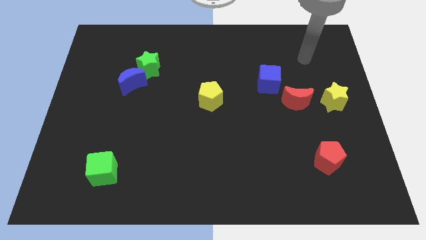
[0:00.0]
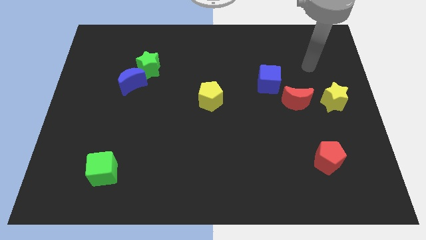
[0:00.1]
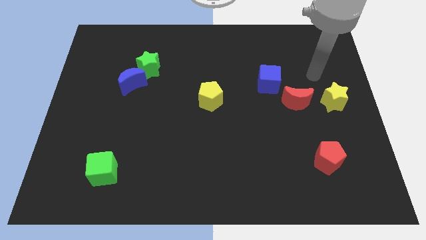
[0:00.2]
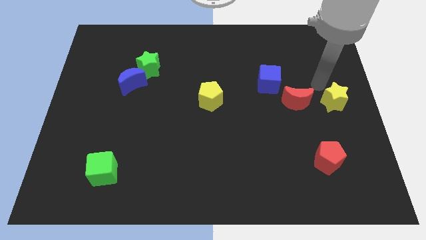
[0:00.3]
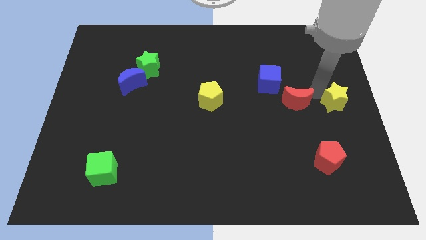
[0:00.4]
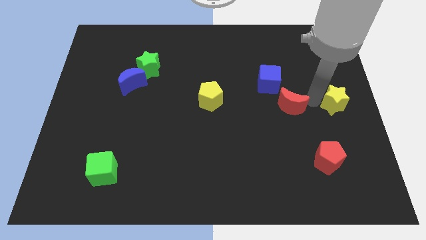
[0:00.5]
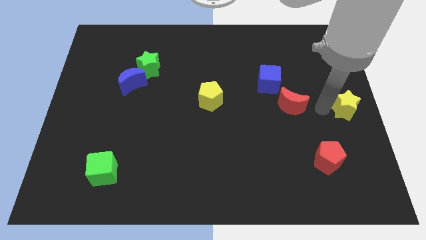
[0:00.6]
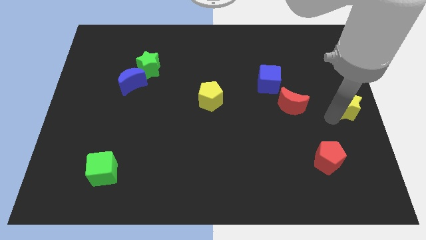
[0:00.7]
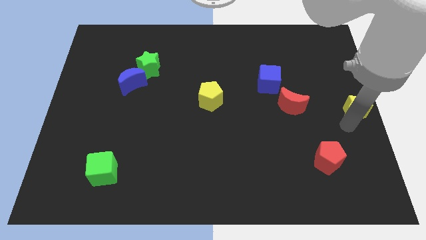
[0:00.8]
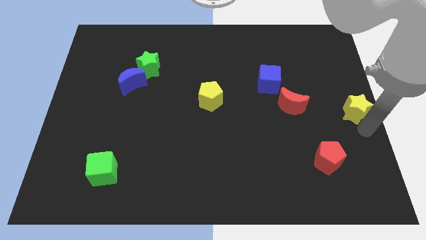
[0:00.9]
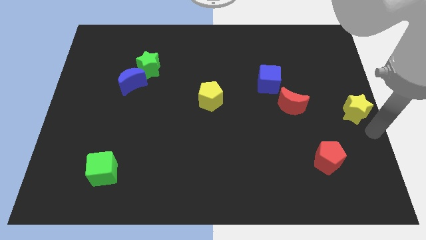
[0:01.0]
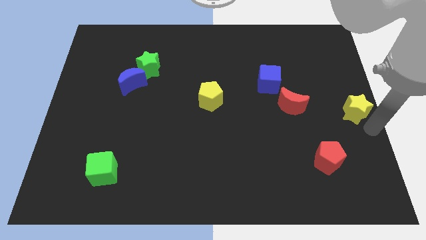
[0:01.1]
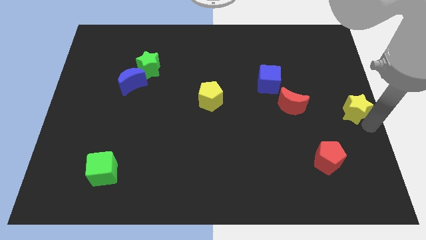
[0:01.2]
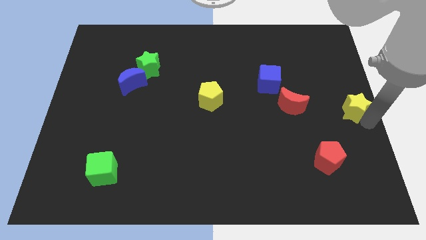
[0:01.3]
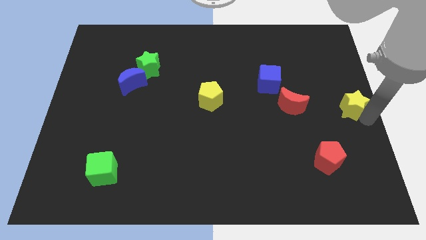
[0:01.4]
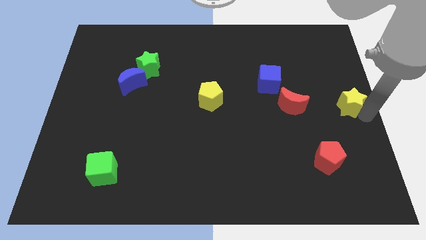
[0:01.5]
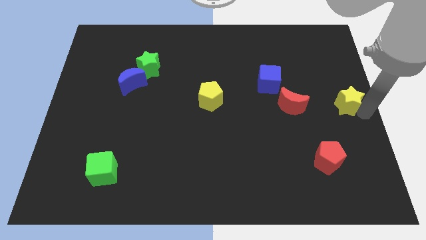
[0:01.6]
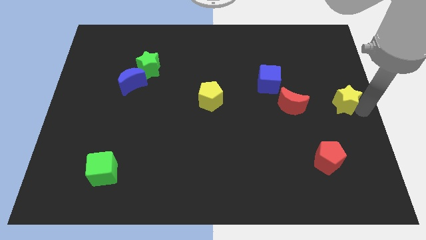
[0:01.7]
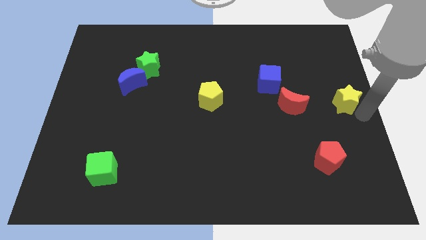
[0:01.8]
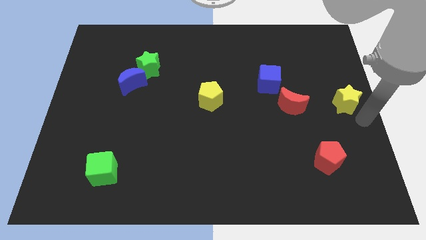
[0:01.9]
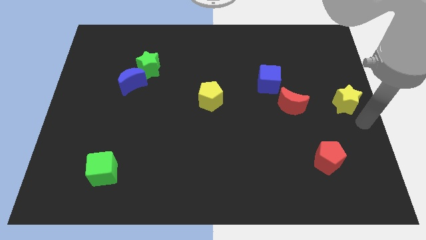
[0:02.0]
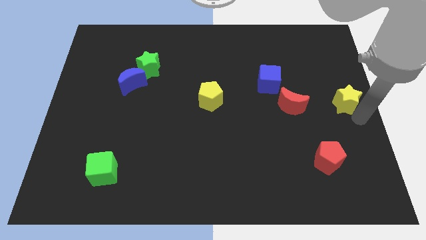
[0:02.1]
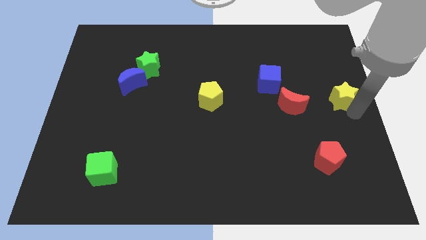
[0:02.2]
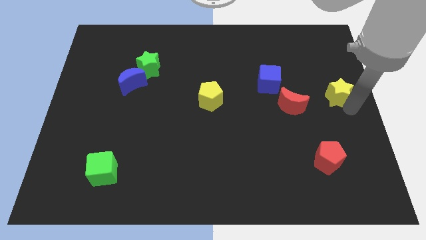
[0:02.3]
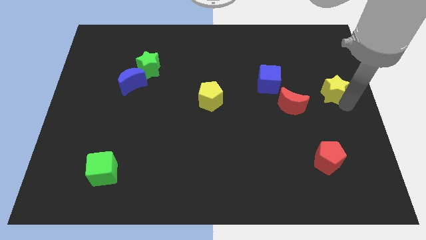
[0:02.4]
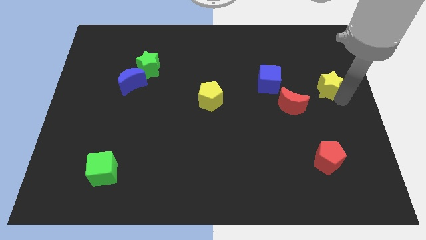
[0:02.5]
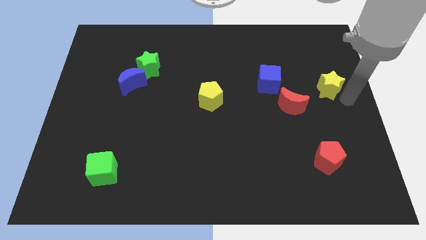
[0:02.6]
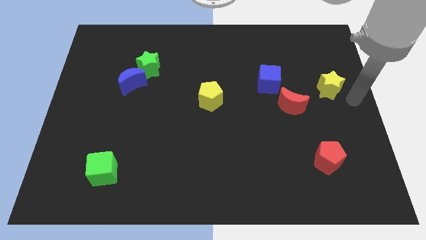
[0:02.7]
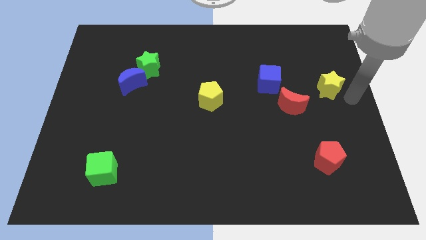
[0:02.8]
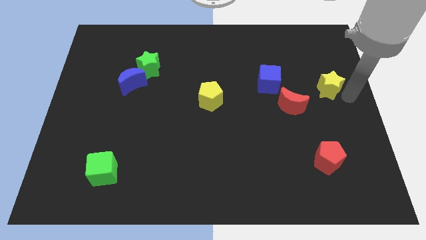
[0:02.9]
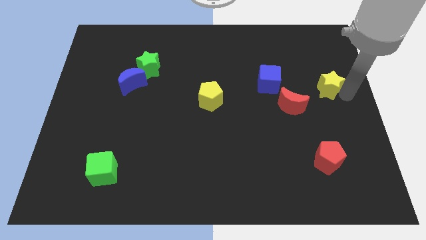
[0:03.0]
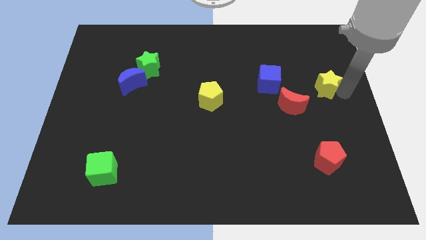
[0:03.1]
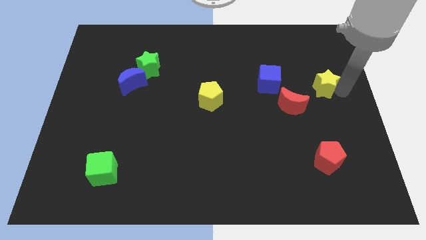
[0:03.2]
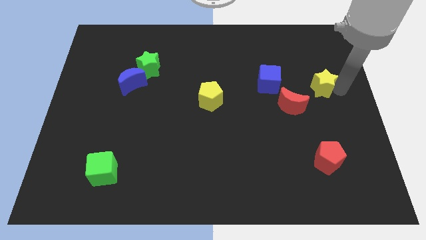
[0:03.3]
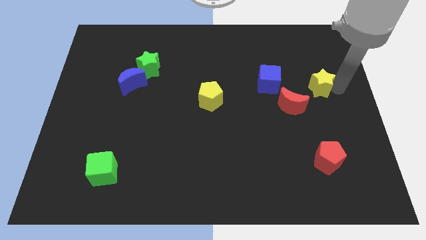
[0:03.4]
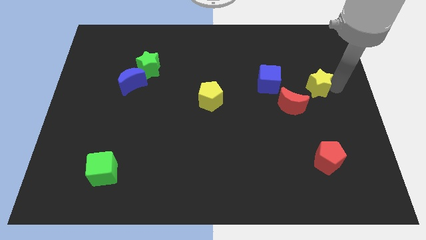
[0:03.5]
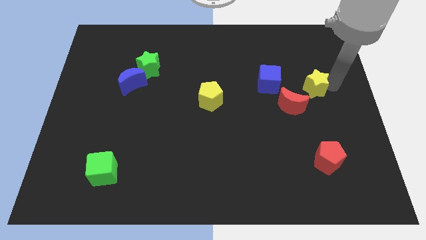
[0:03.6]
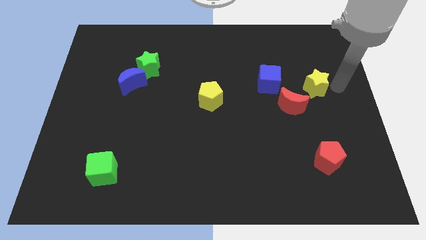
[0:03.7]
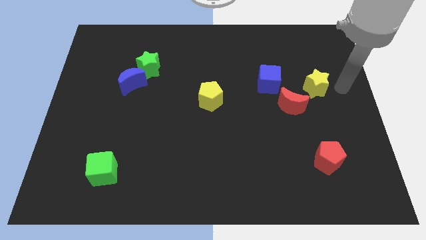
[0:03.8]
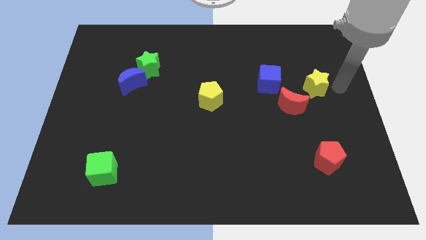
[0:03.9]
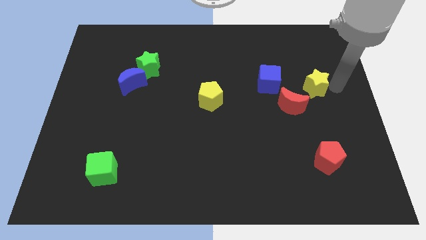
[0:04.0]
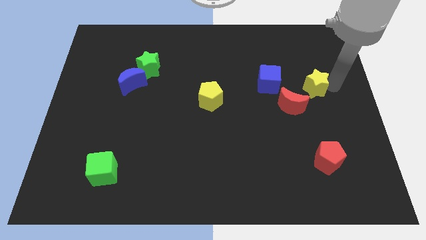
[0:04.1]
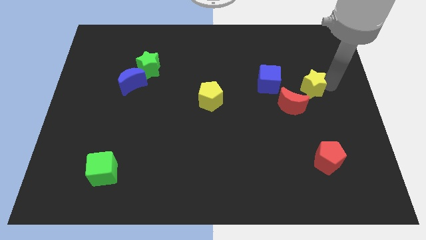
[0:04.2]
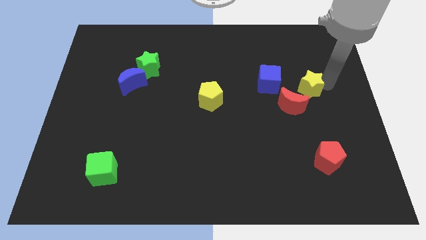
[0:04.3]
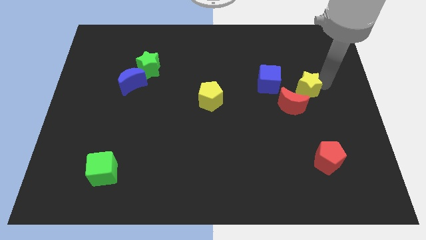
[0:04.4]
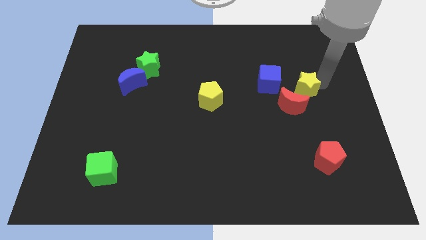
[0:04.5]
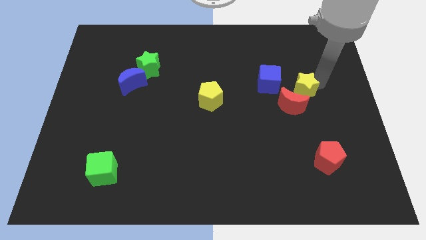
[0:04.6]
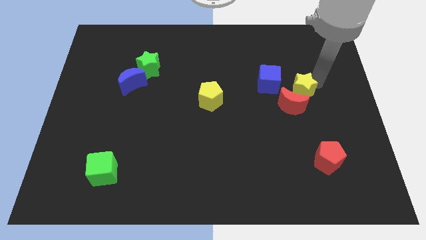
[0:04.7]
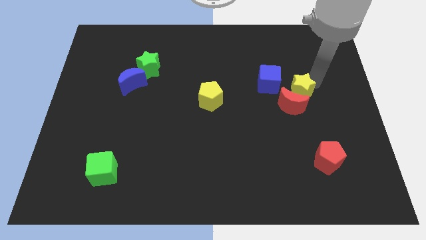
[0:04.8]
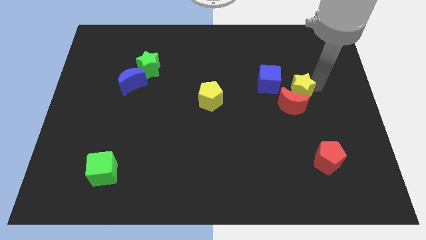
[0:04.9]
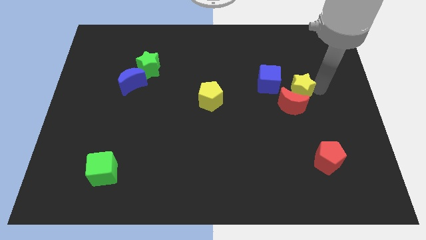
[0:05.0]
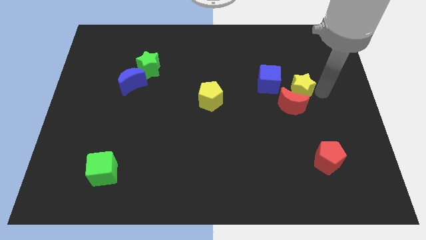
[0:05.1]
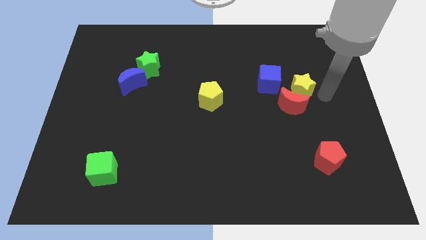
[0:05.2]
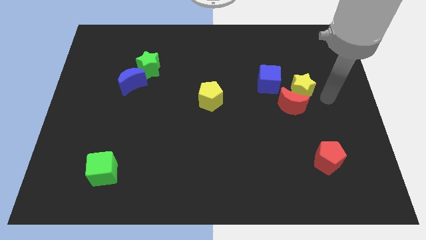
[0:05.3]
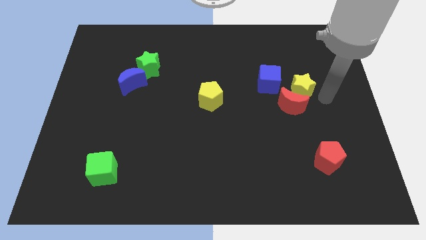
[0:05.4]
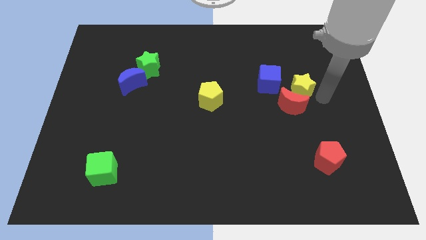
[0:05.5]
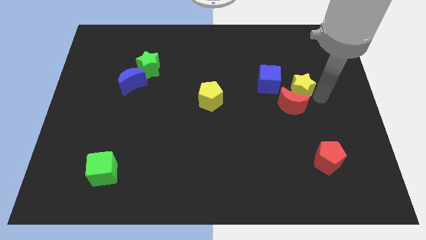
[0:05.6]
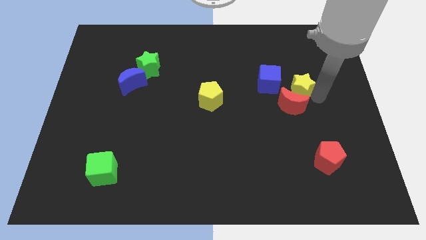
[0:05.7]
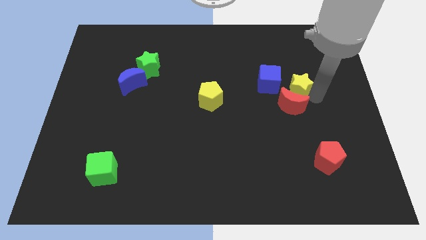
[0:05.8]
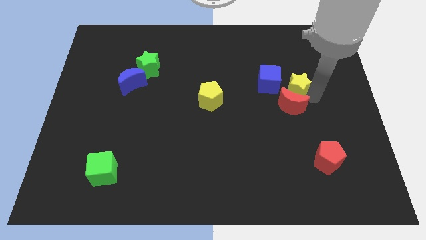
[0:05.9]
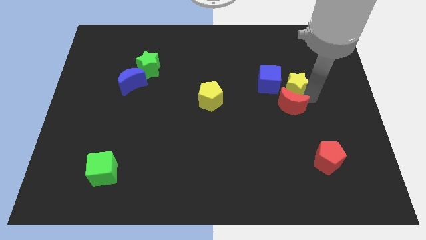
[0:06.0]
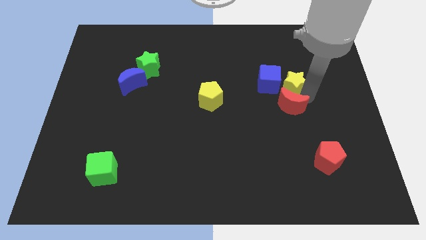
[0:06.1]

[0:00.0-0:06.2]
put the yellow star close to the blue cube
